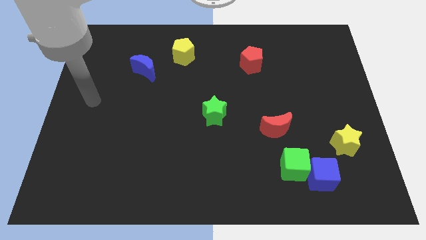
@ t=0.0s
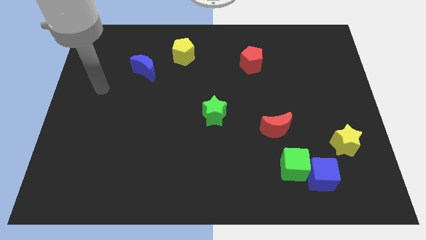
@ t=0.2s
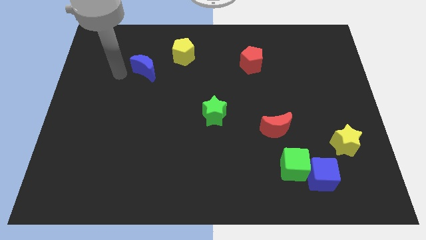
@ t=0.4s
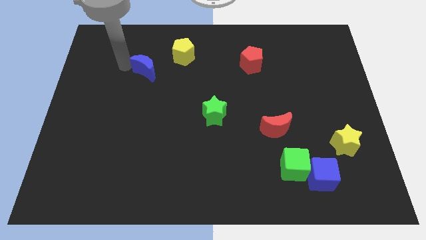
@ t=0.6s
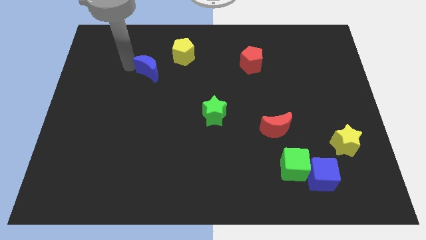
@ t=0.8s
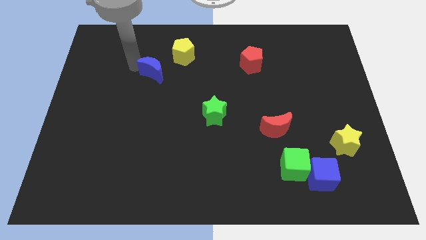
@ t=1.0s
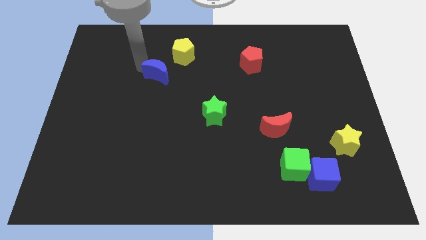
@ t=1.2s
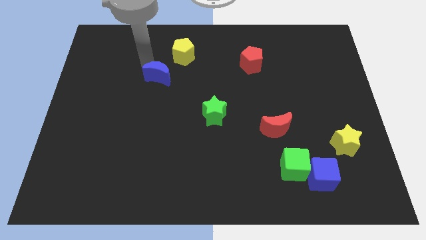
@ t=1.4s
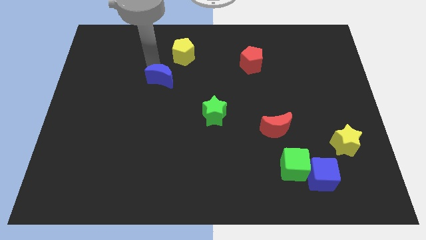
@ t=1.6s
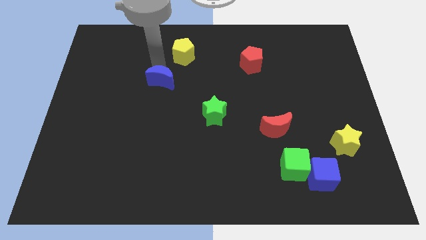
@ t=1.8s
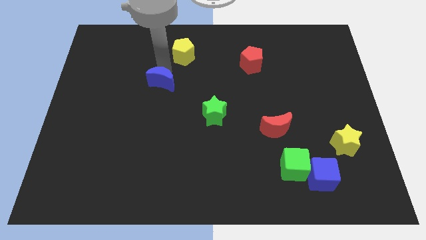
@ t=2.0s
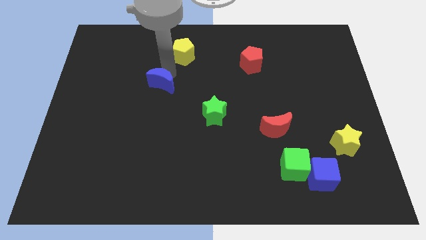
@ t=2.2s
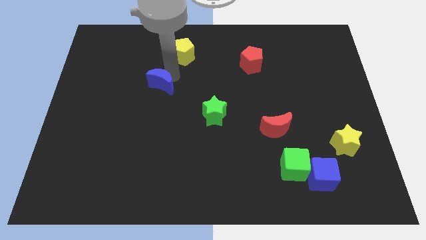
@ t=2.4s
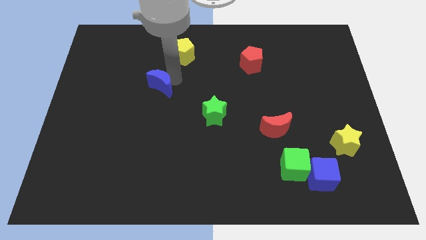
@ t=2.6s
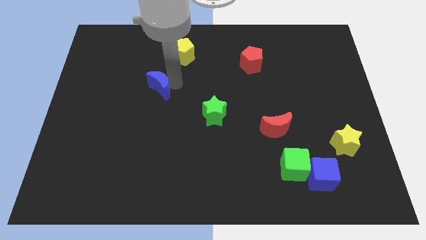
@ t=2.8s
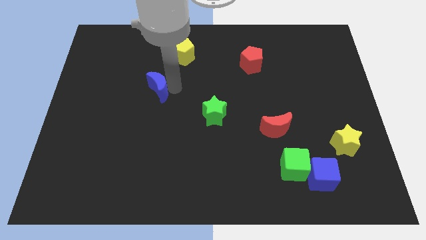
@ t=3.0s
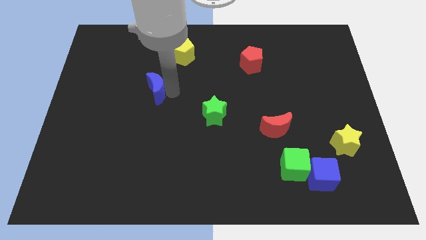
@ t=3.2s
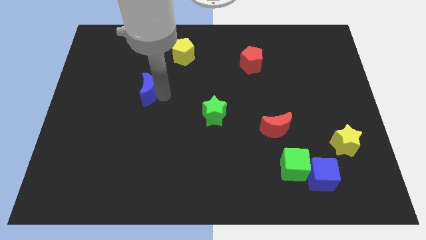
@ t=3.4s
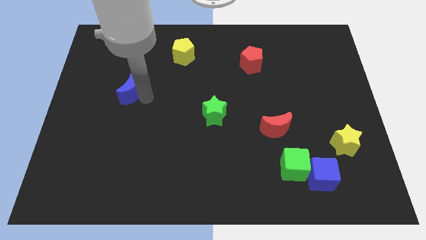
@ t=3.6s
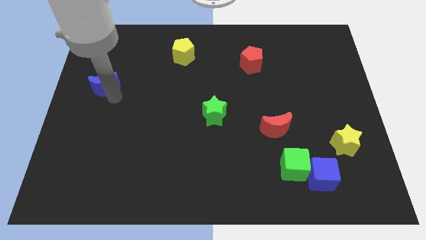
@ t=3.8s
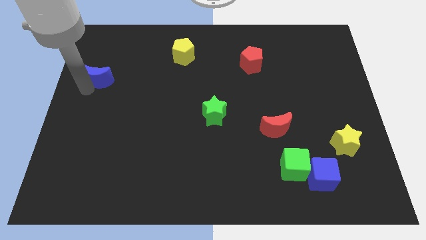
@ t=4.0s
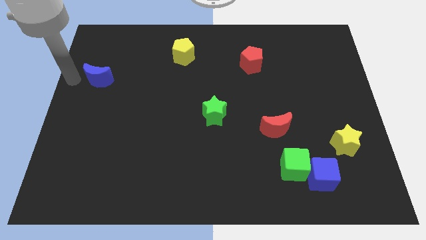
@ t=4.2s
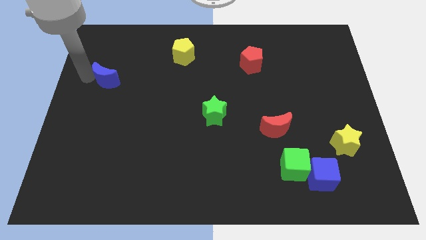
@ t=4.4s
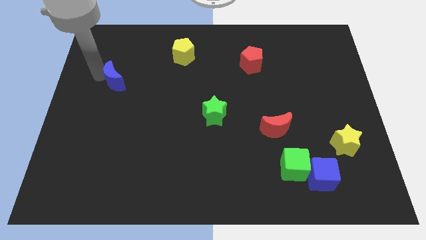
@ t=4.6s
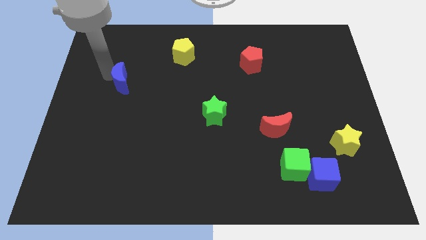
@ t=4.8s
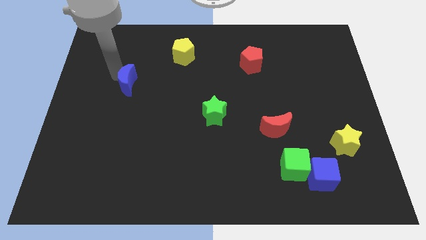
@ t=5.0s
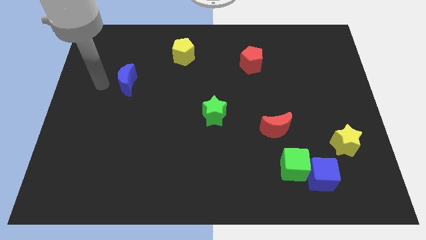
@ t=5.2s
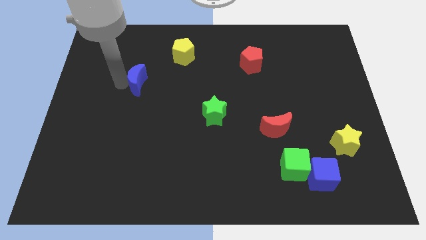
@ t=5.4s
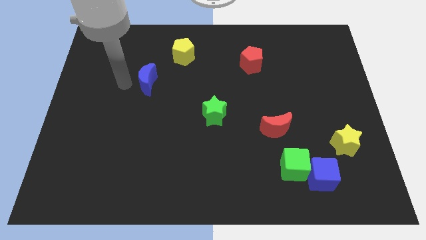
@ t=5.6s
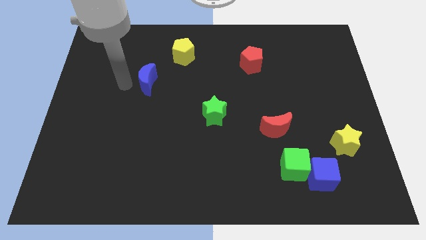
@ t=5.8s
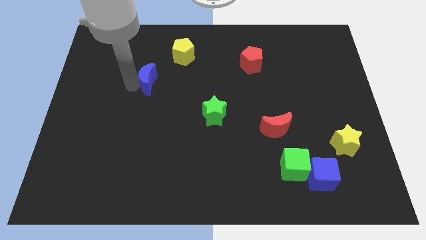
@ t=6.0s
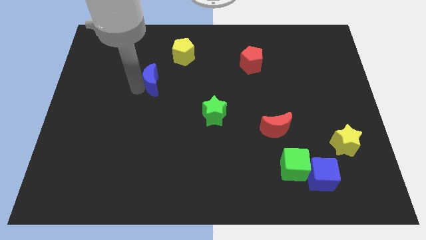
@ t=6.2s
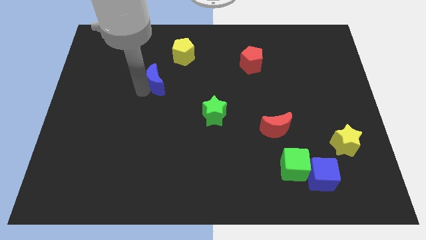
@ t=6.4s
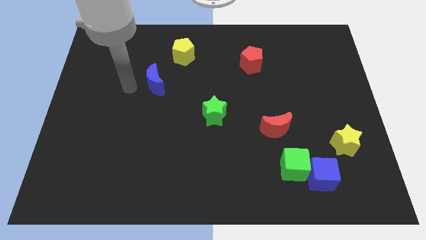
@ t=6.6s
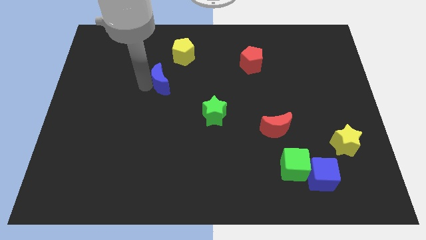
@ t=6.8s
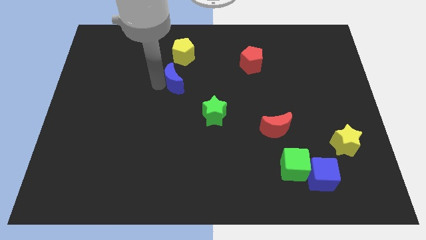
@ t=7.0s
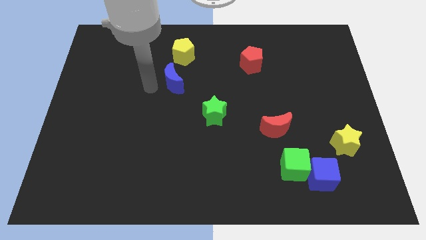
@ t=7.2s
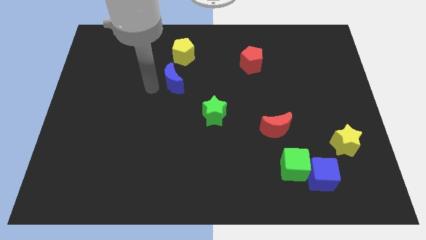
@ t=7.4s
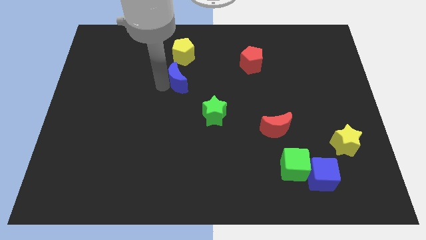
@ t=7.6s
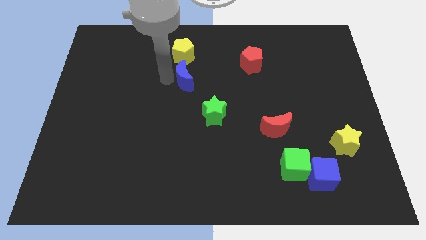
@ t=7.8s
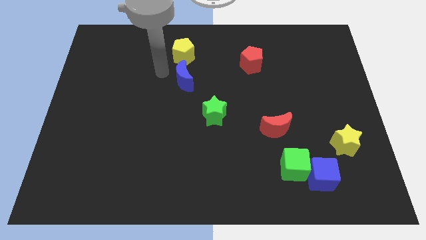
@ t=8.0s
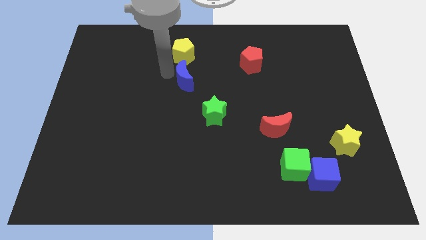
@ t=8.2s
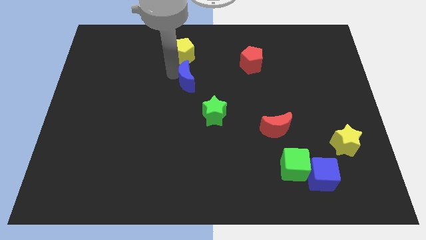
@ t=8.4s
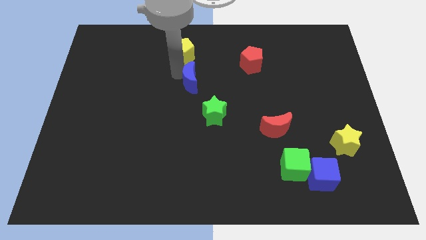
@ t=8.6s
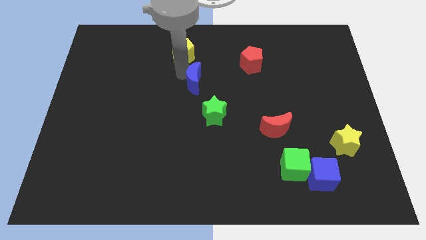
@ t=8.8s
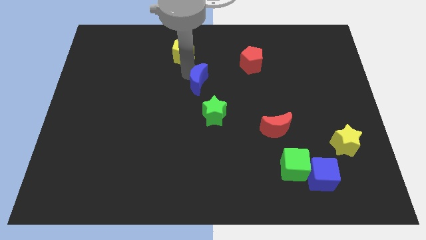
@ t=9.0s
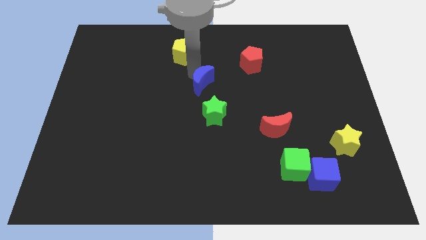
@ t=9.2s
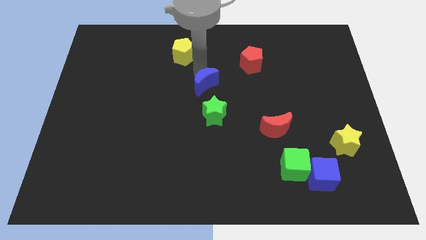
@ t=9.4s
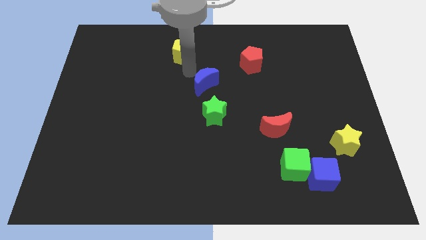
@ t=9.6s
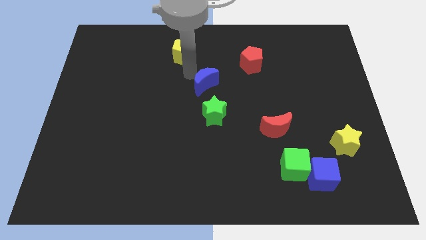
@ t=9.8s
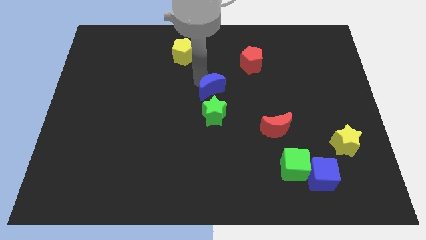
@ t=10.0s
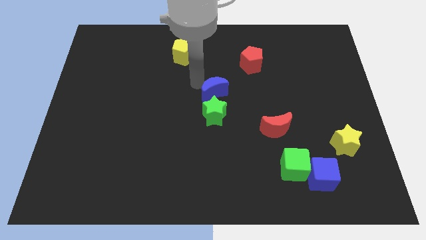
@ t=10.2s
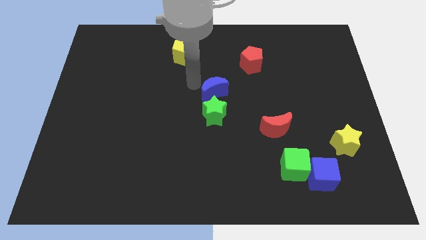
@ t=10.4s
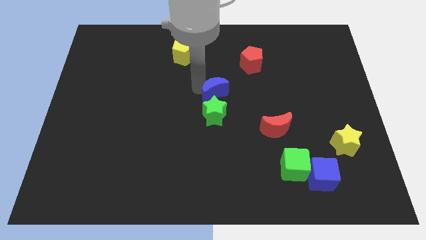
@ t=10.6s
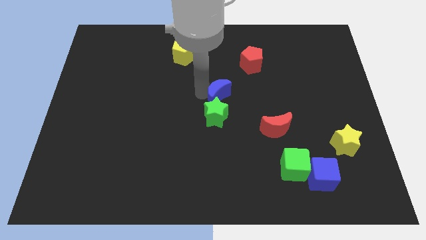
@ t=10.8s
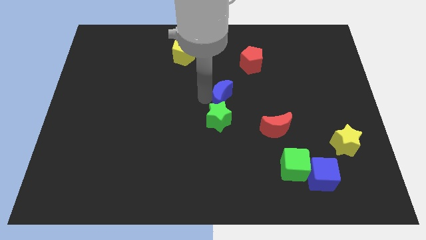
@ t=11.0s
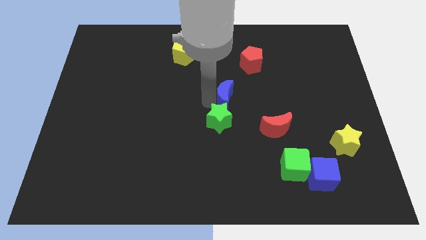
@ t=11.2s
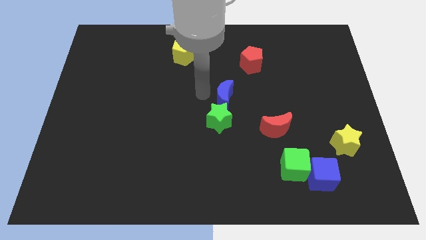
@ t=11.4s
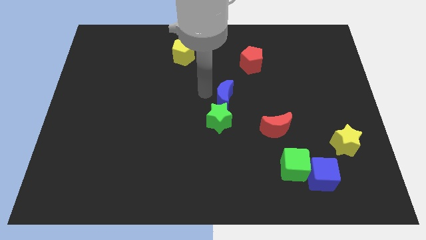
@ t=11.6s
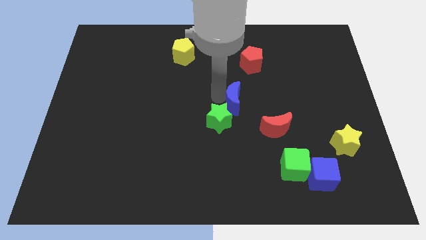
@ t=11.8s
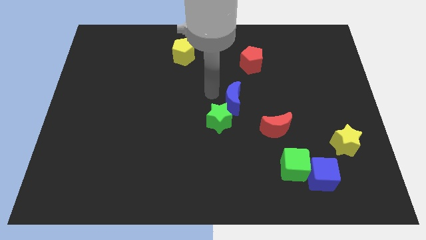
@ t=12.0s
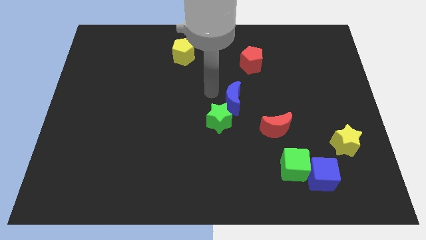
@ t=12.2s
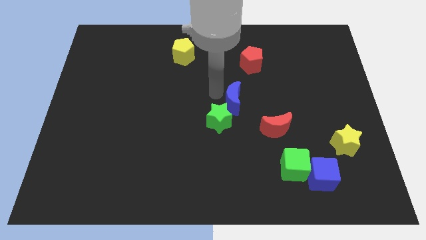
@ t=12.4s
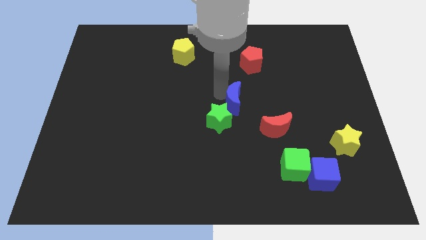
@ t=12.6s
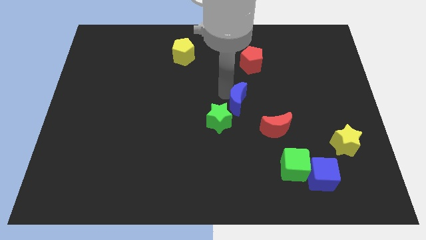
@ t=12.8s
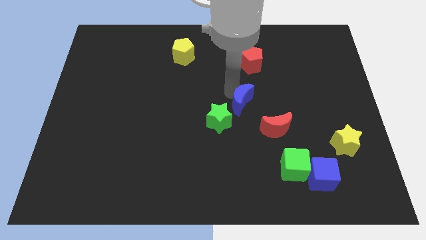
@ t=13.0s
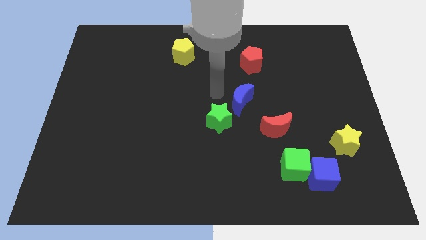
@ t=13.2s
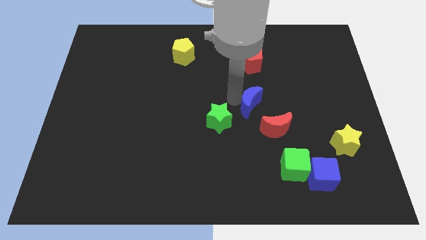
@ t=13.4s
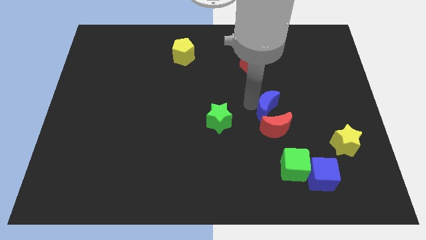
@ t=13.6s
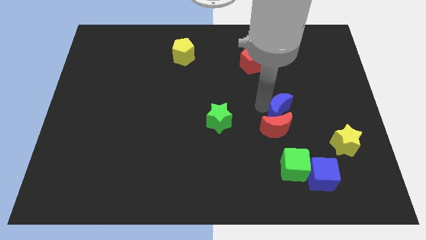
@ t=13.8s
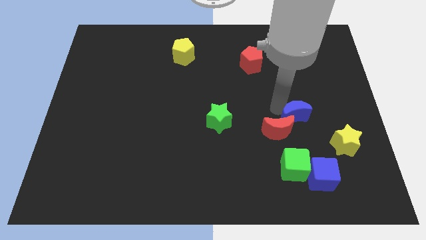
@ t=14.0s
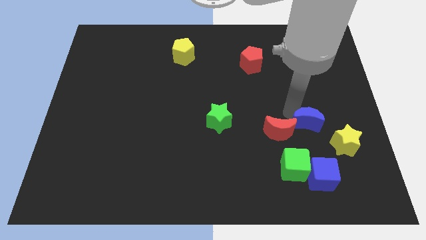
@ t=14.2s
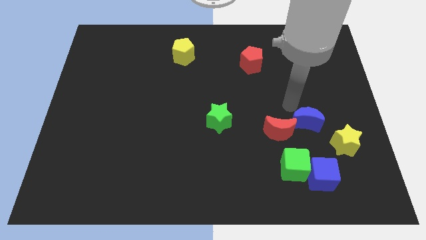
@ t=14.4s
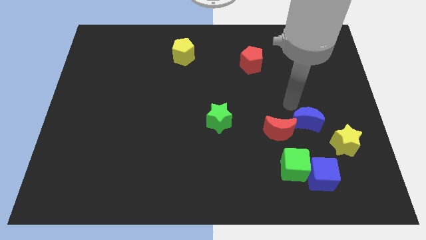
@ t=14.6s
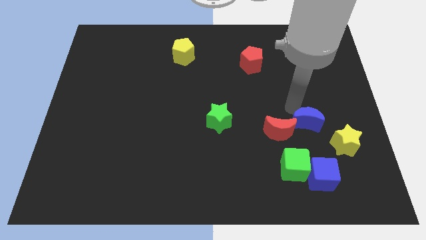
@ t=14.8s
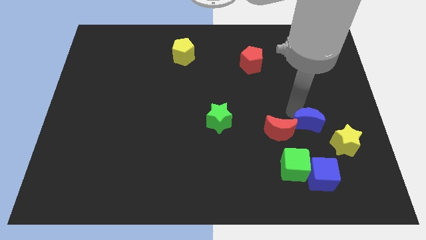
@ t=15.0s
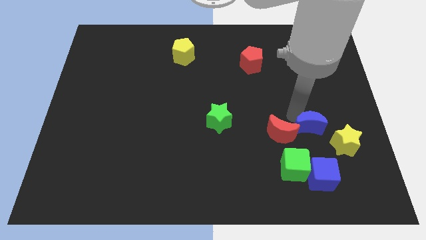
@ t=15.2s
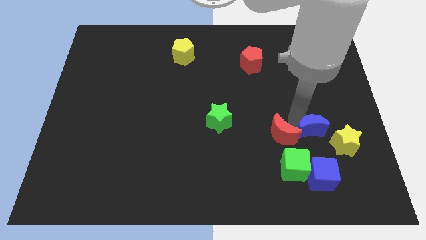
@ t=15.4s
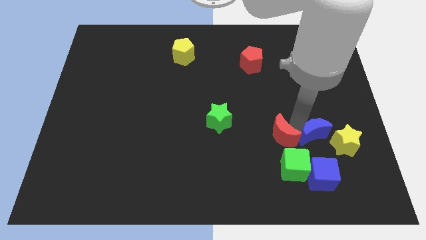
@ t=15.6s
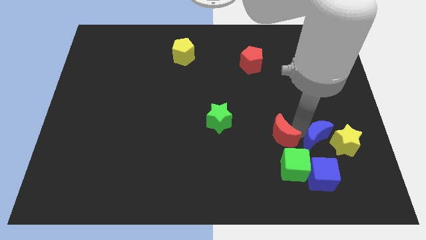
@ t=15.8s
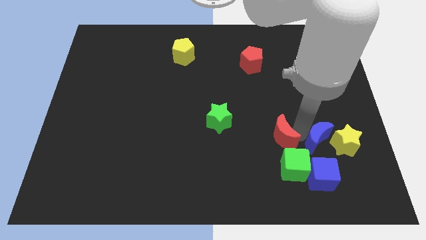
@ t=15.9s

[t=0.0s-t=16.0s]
slide the blue moon towards the yellow star
